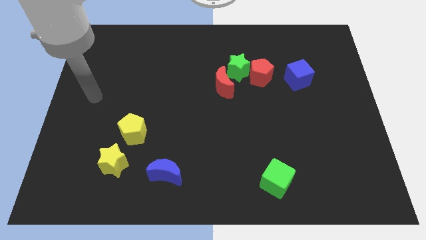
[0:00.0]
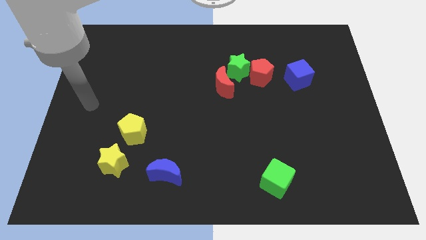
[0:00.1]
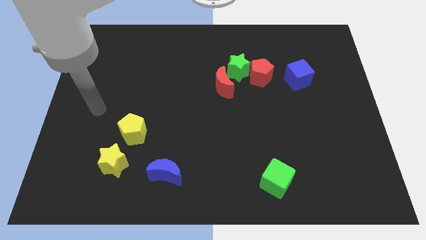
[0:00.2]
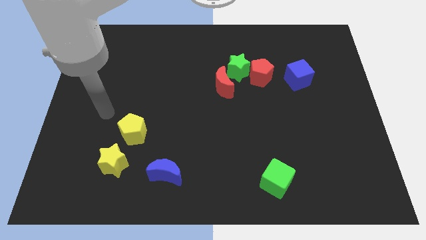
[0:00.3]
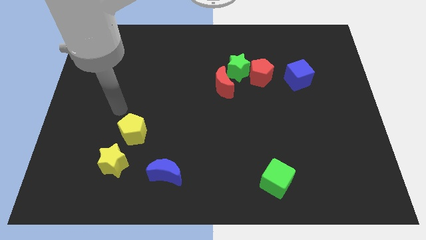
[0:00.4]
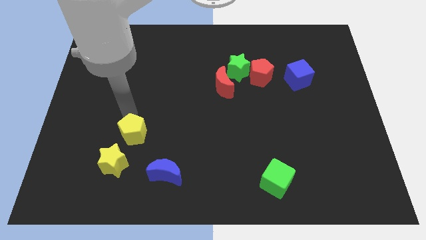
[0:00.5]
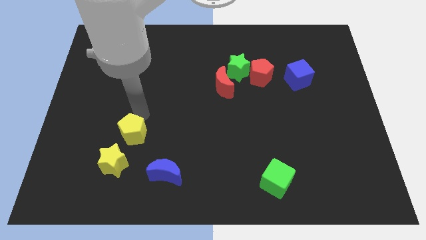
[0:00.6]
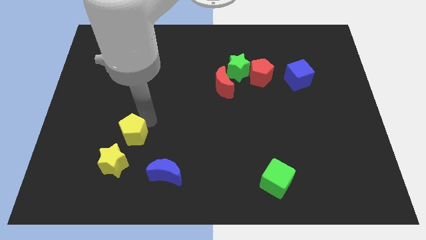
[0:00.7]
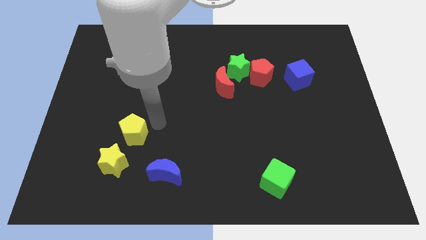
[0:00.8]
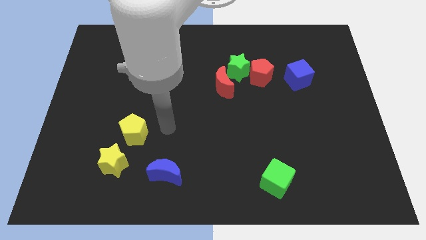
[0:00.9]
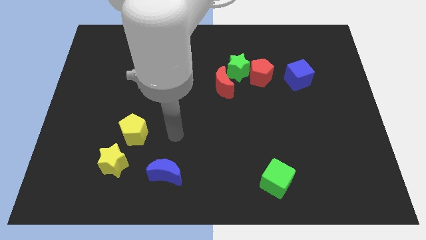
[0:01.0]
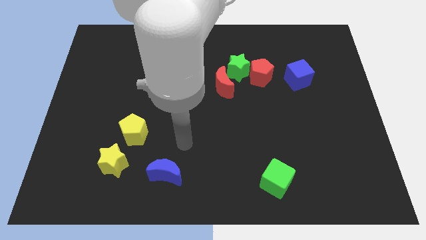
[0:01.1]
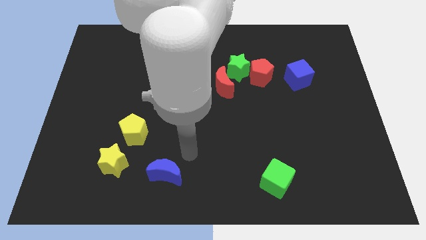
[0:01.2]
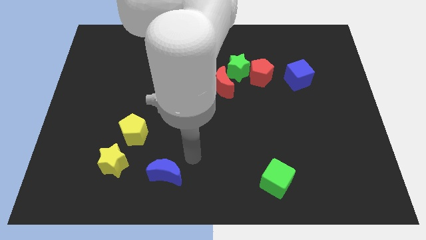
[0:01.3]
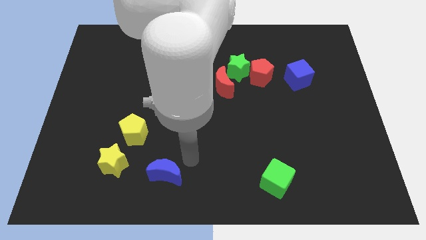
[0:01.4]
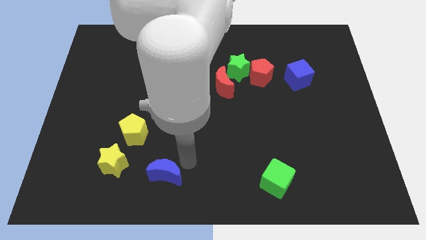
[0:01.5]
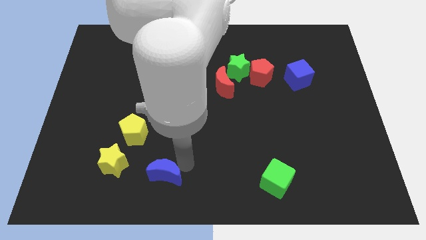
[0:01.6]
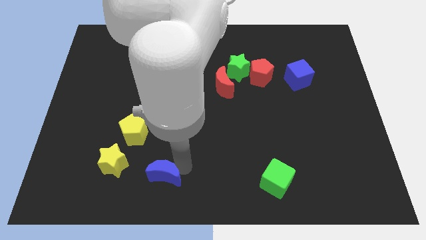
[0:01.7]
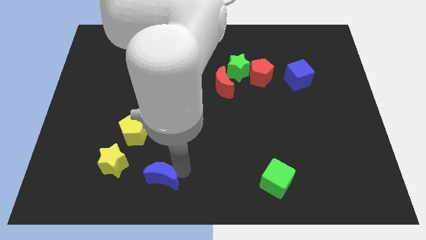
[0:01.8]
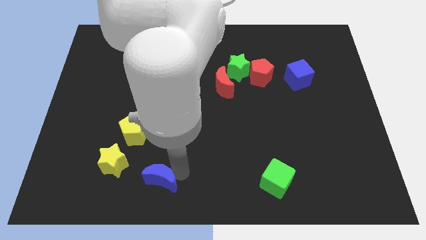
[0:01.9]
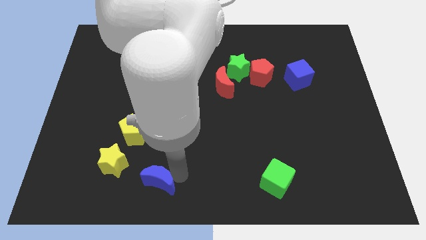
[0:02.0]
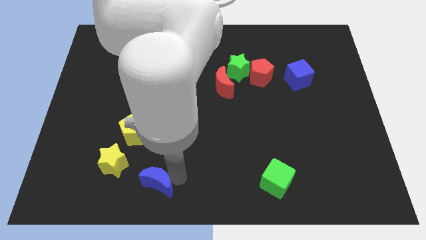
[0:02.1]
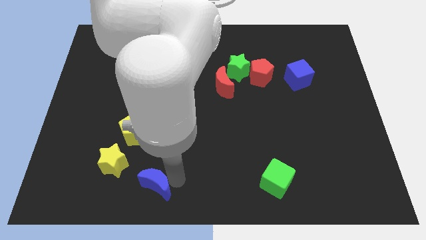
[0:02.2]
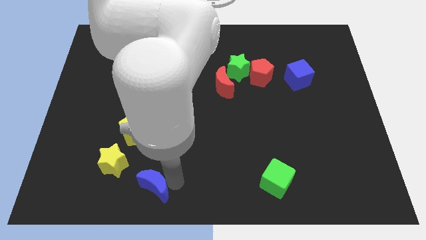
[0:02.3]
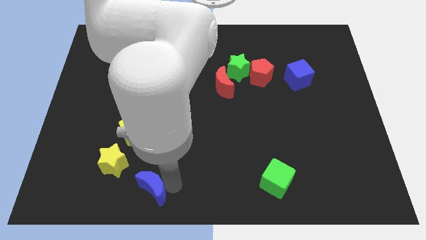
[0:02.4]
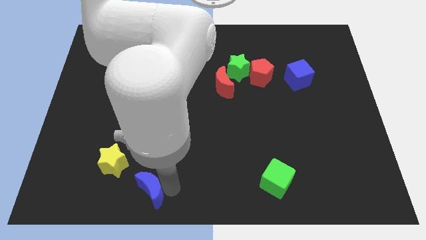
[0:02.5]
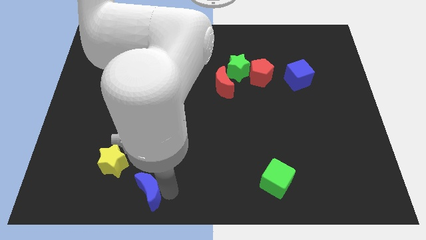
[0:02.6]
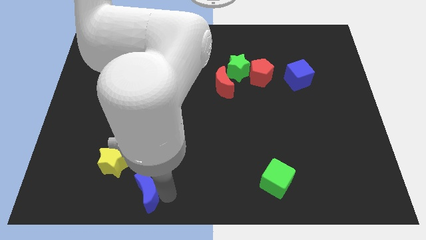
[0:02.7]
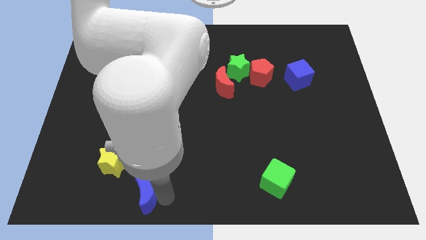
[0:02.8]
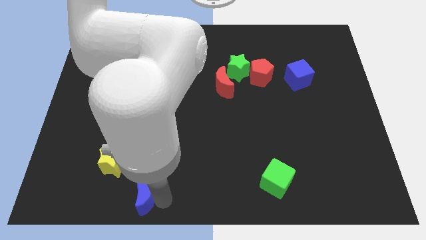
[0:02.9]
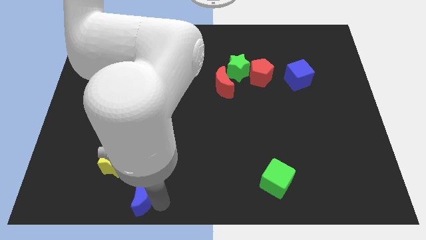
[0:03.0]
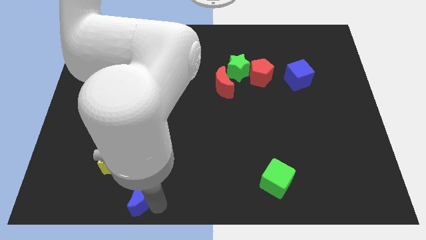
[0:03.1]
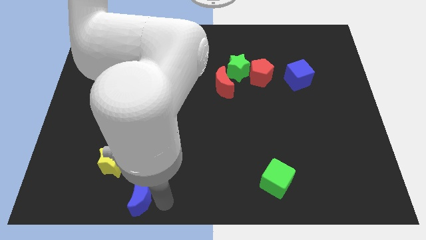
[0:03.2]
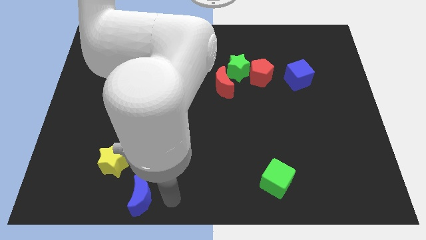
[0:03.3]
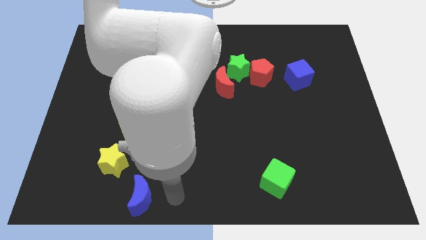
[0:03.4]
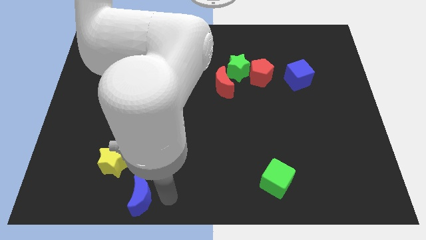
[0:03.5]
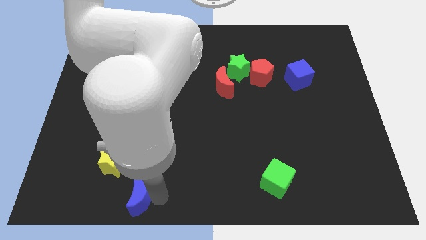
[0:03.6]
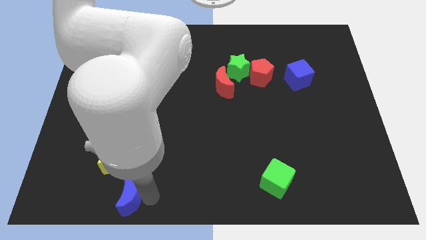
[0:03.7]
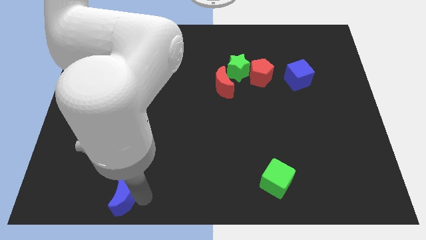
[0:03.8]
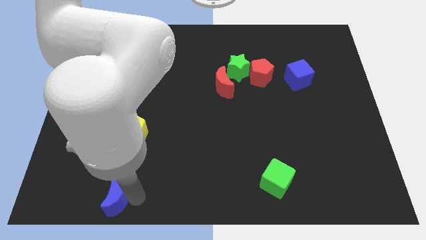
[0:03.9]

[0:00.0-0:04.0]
slightly push the blue moon left

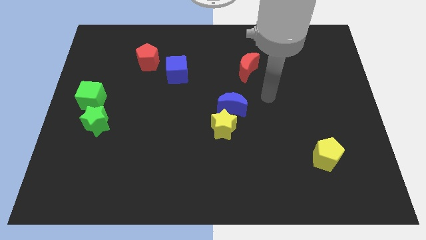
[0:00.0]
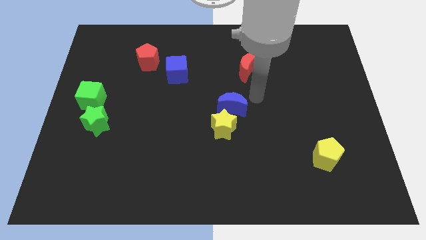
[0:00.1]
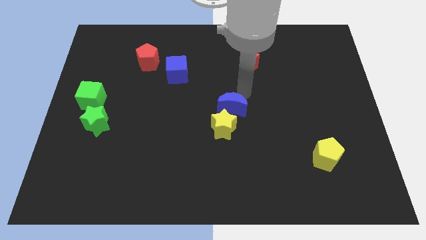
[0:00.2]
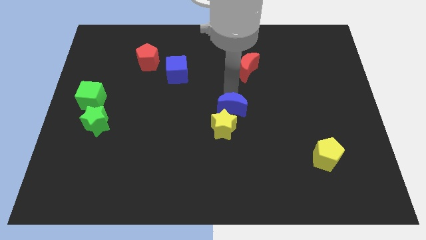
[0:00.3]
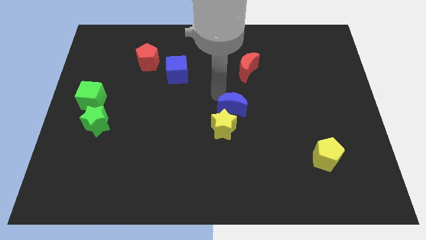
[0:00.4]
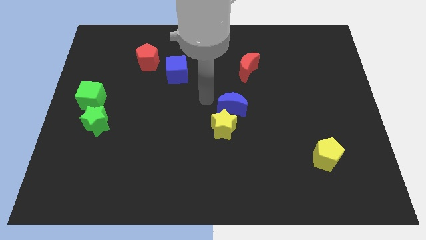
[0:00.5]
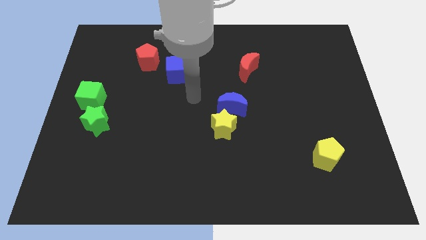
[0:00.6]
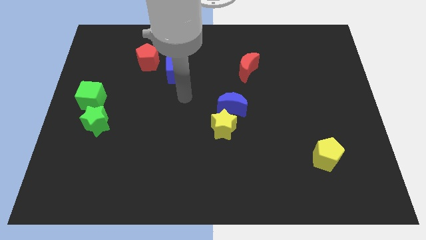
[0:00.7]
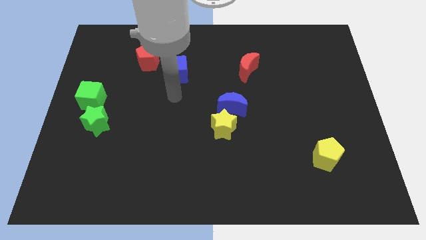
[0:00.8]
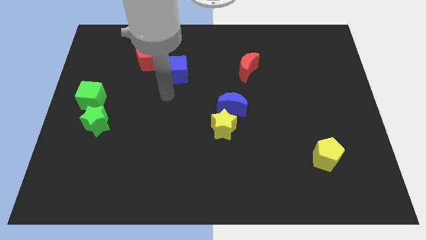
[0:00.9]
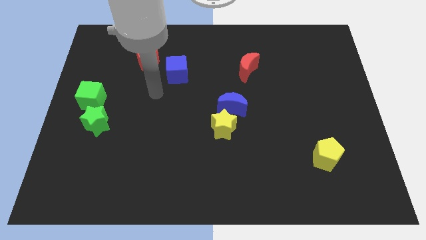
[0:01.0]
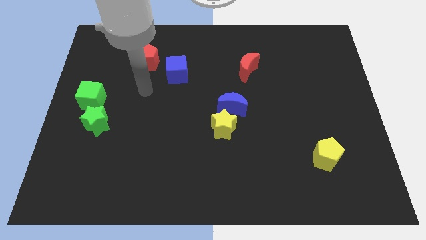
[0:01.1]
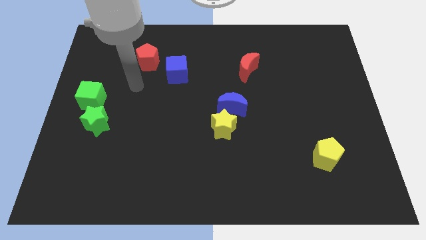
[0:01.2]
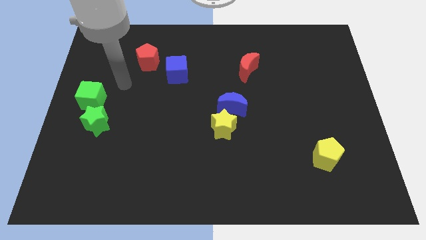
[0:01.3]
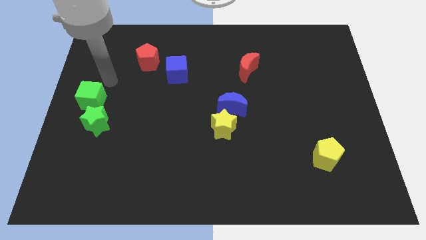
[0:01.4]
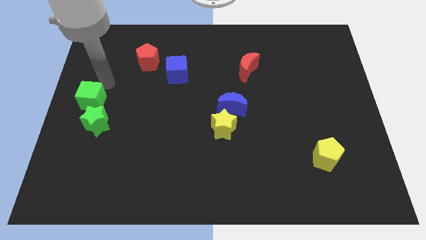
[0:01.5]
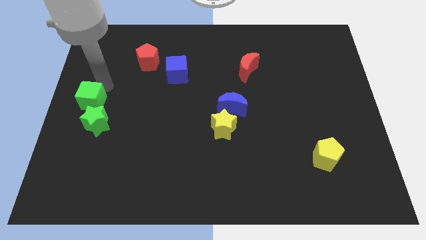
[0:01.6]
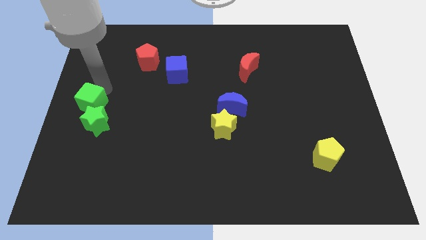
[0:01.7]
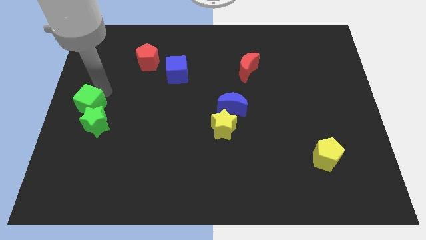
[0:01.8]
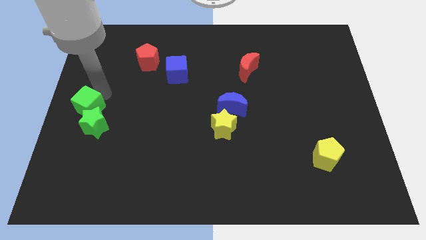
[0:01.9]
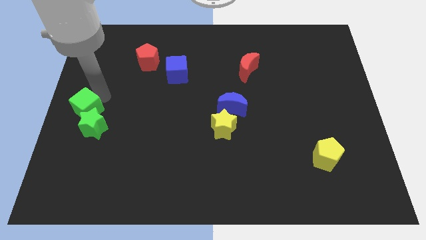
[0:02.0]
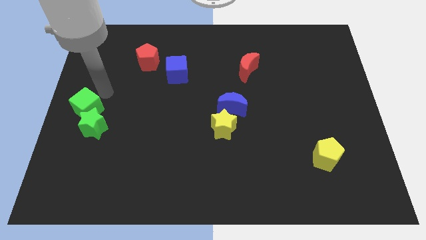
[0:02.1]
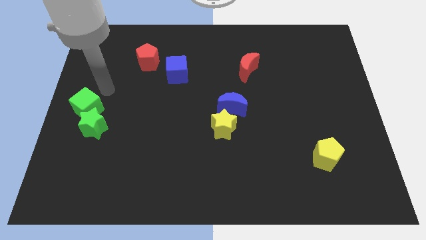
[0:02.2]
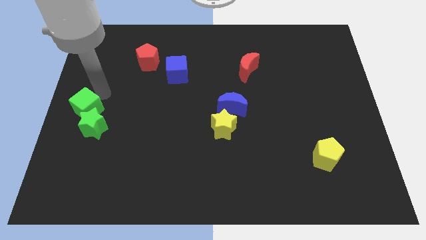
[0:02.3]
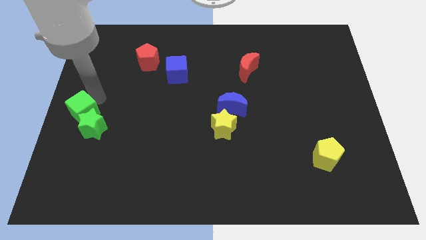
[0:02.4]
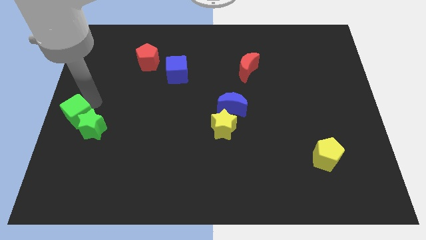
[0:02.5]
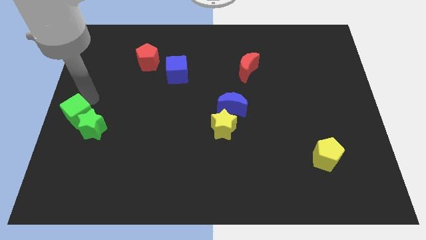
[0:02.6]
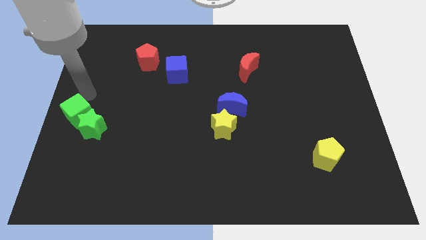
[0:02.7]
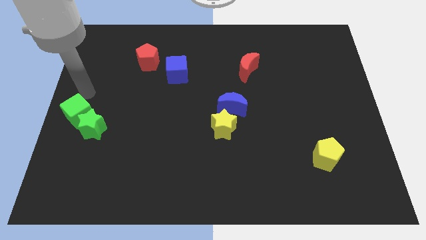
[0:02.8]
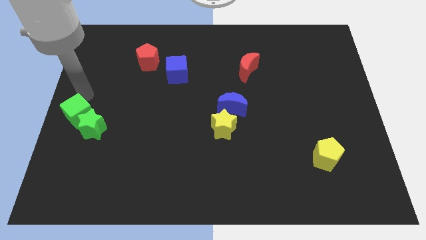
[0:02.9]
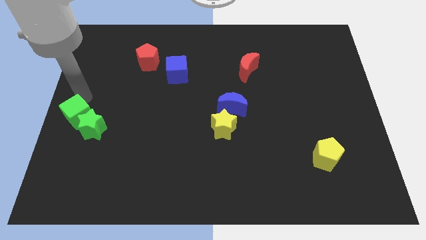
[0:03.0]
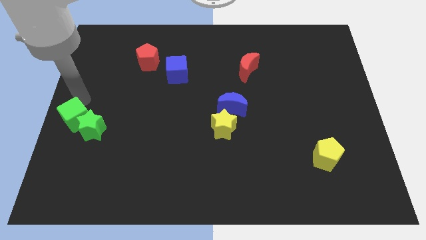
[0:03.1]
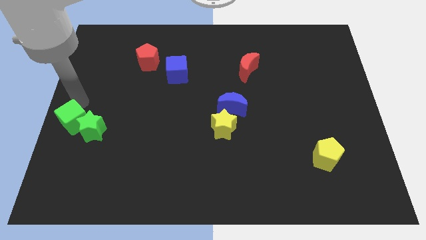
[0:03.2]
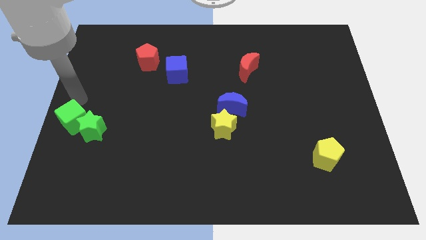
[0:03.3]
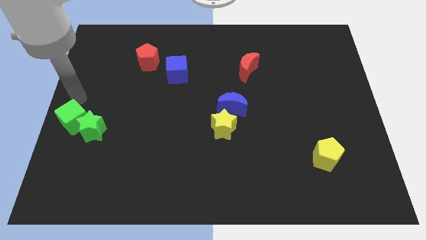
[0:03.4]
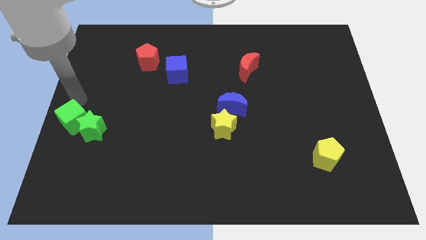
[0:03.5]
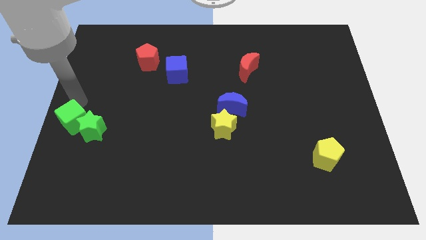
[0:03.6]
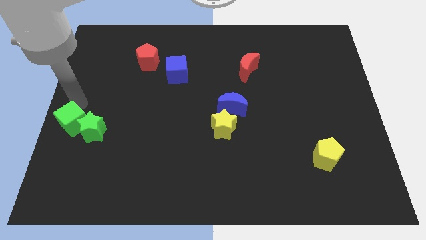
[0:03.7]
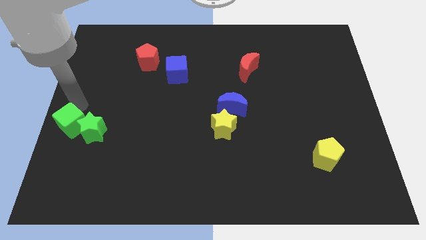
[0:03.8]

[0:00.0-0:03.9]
push the green cube downwards somewhat

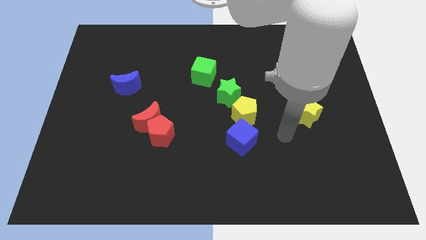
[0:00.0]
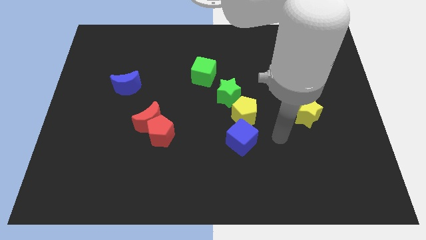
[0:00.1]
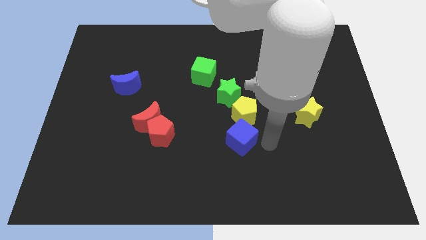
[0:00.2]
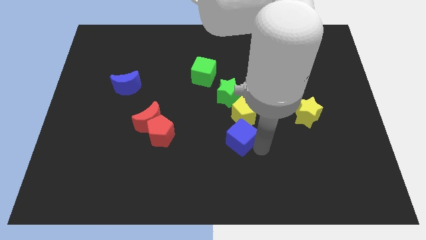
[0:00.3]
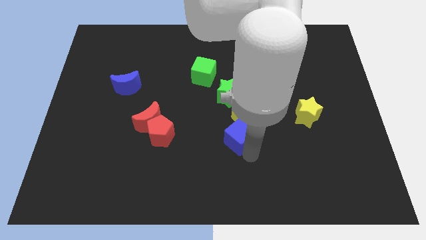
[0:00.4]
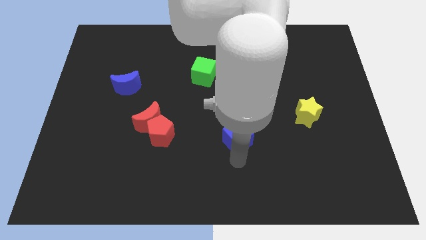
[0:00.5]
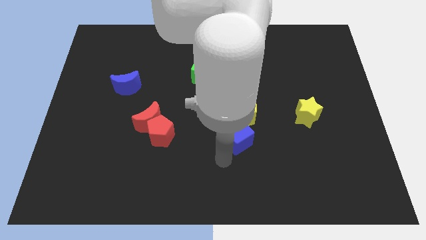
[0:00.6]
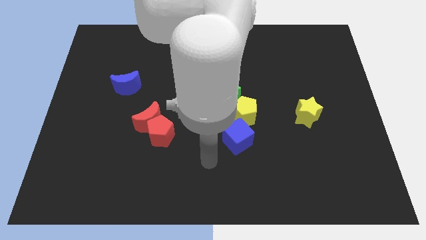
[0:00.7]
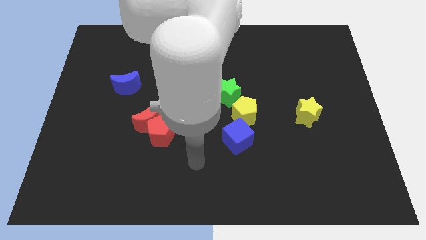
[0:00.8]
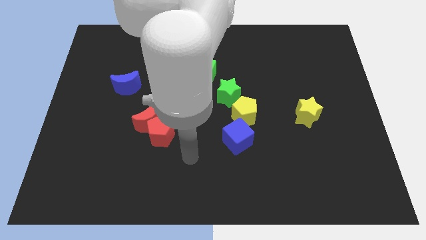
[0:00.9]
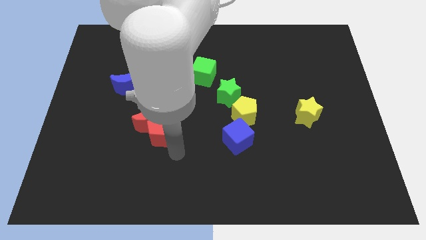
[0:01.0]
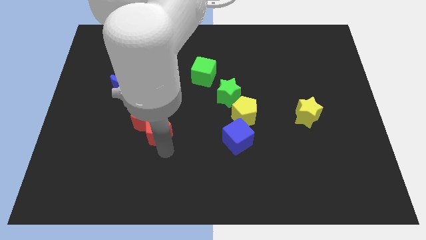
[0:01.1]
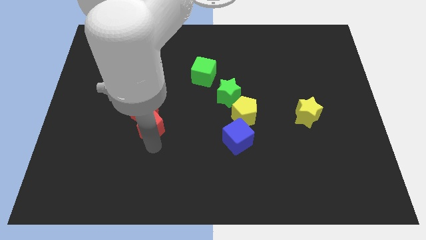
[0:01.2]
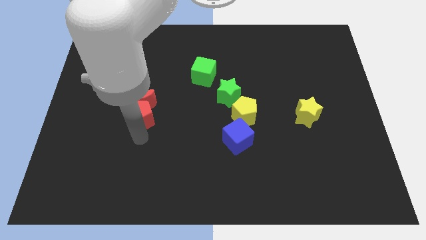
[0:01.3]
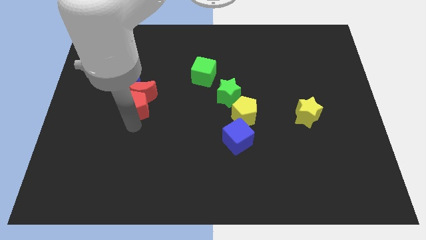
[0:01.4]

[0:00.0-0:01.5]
slide the red moon upwards a bit
